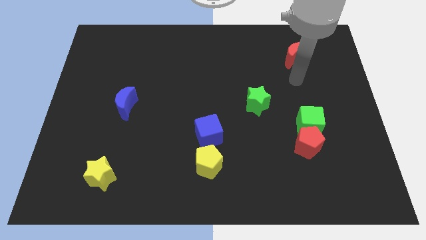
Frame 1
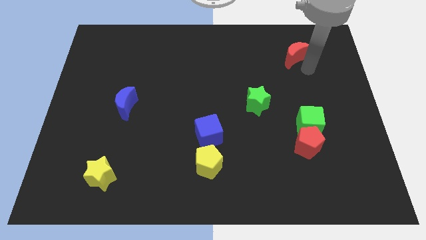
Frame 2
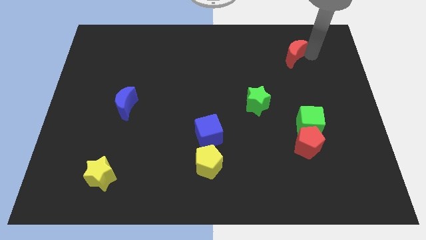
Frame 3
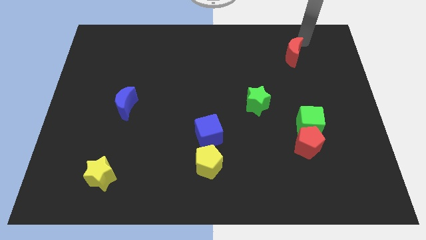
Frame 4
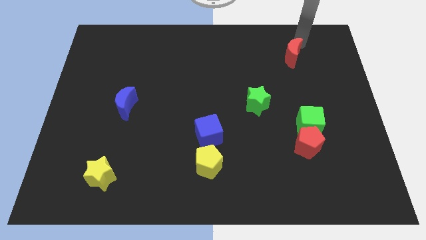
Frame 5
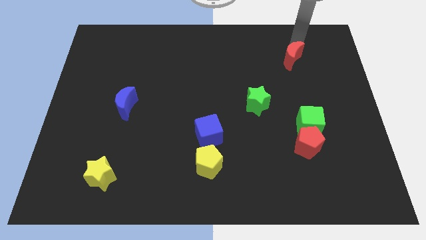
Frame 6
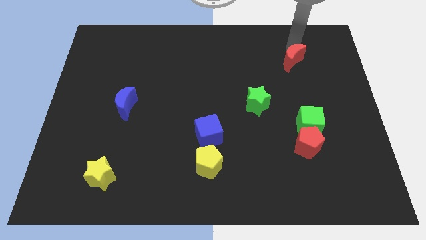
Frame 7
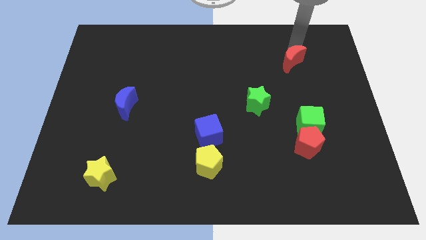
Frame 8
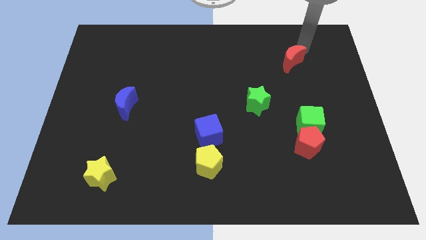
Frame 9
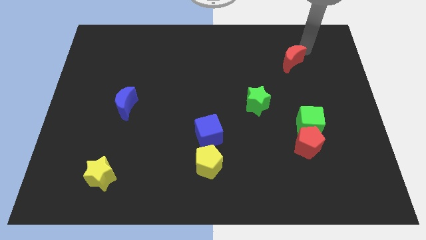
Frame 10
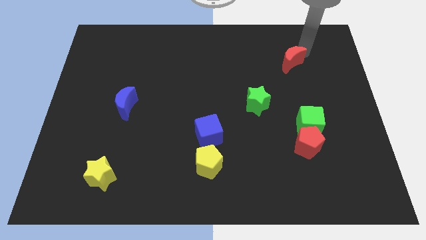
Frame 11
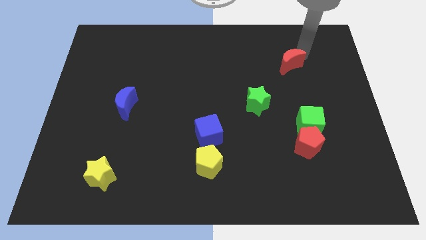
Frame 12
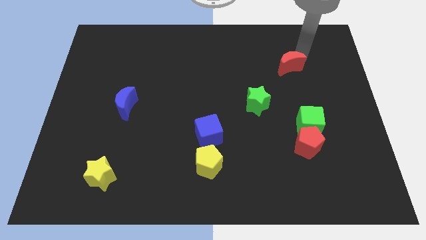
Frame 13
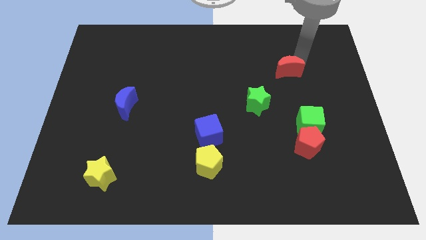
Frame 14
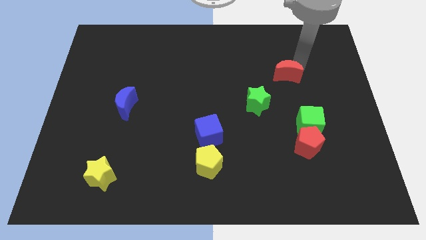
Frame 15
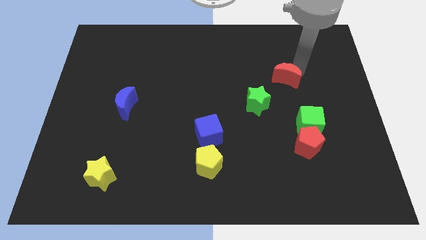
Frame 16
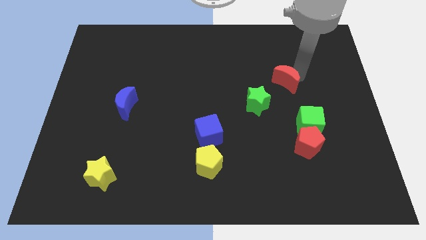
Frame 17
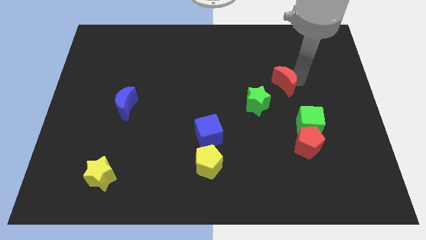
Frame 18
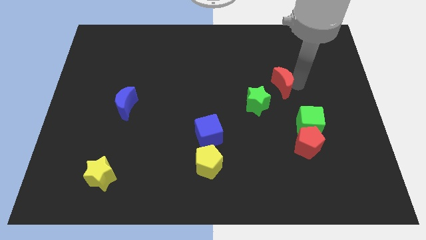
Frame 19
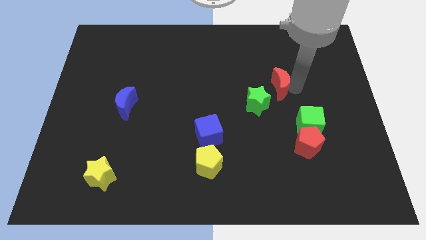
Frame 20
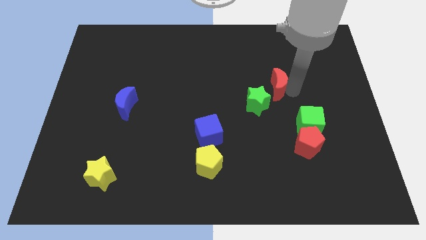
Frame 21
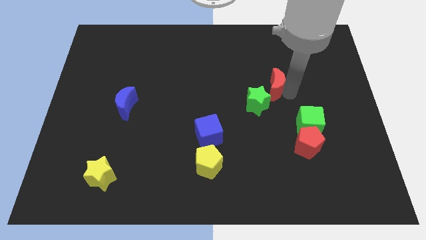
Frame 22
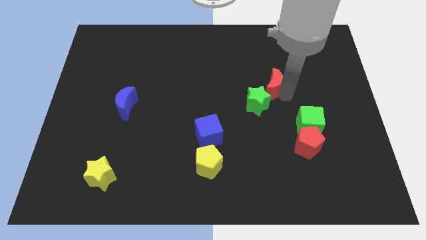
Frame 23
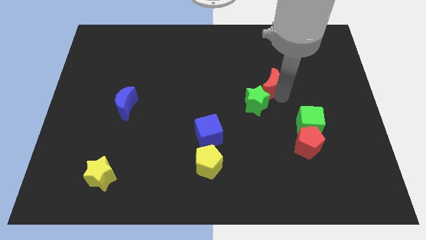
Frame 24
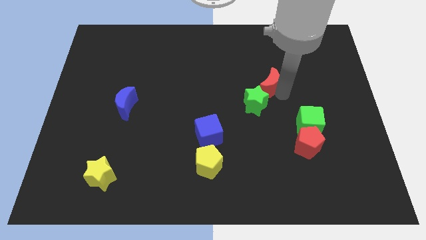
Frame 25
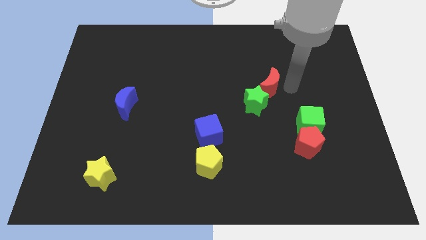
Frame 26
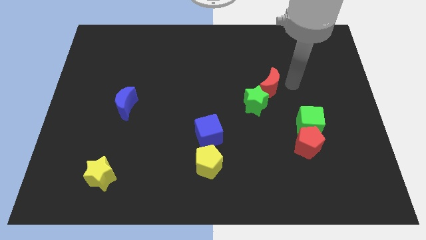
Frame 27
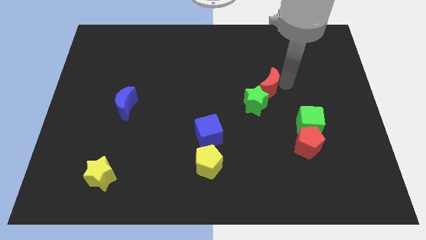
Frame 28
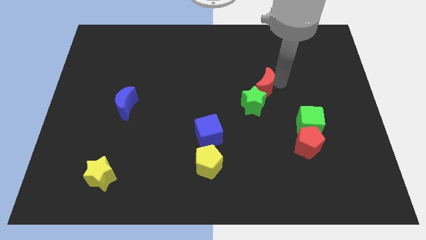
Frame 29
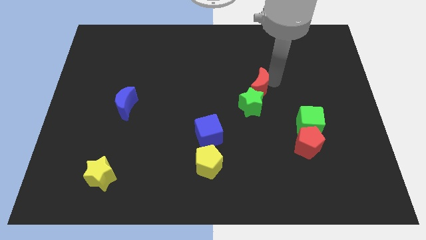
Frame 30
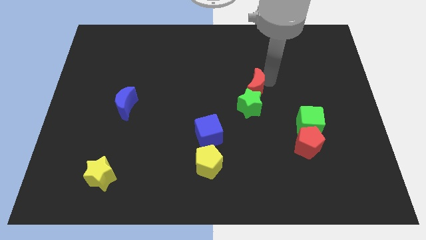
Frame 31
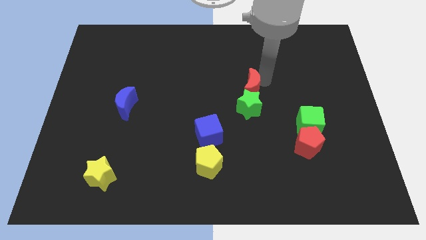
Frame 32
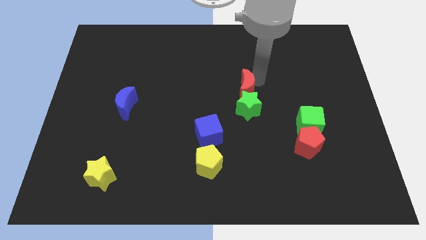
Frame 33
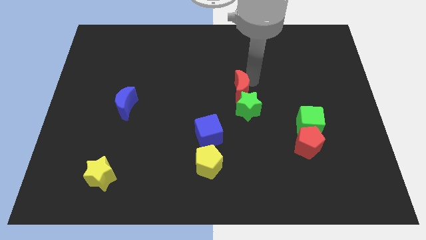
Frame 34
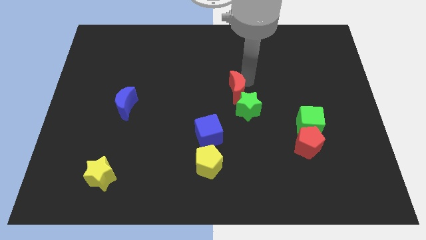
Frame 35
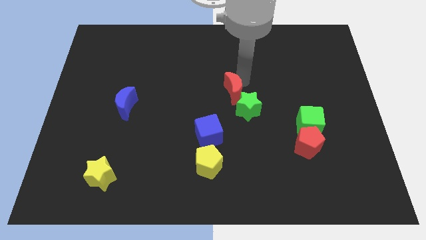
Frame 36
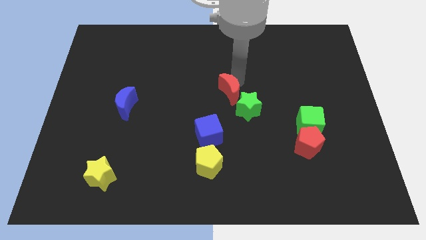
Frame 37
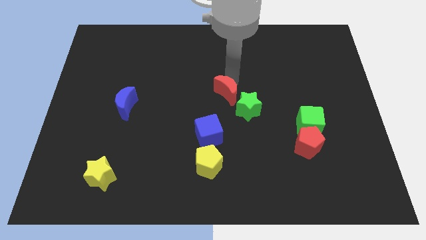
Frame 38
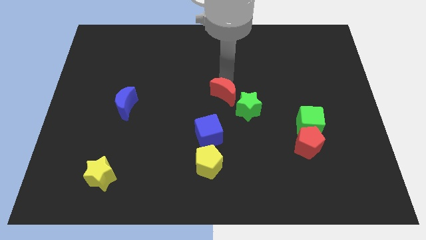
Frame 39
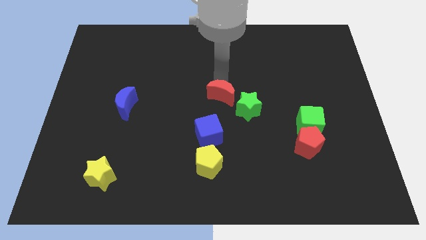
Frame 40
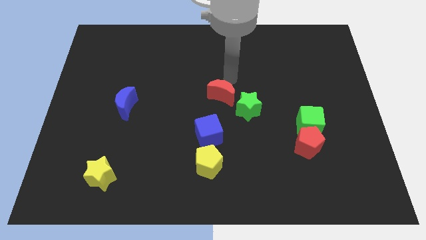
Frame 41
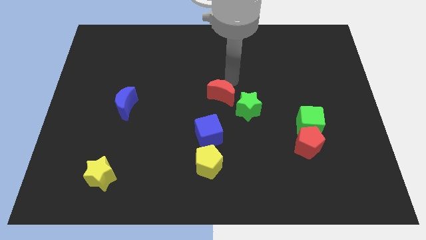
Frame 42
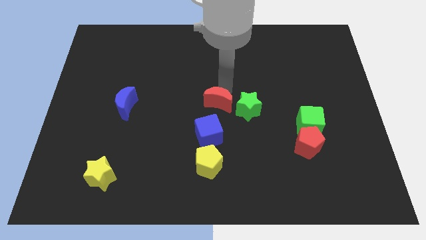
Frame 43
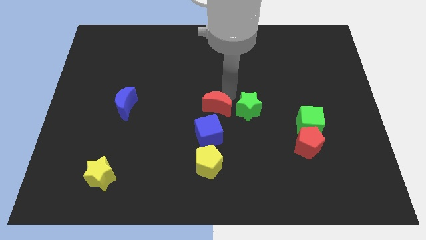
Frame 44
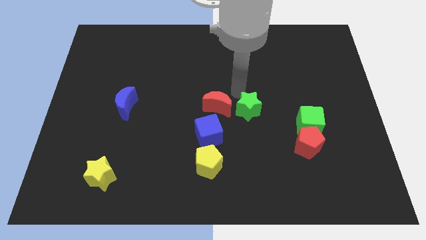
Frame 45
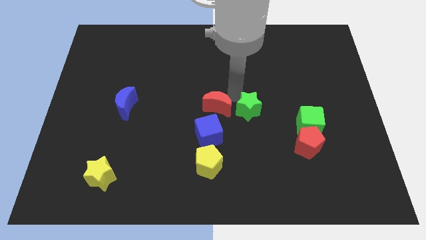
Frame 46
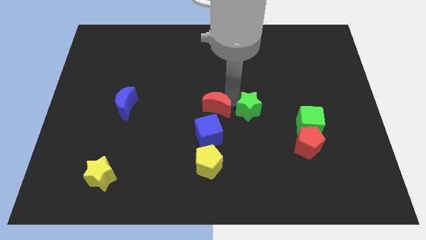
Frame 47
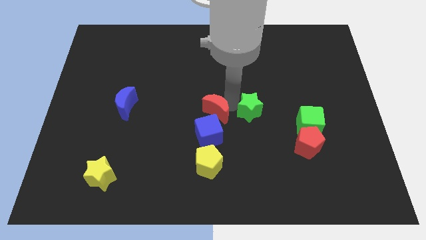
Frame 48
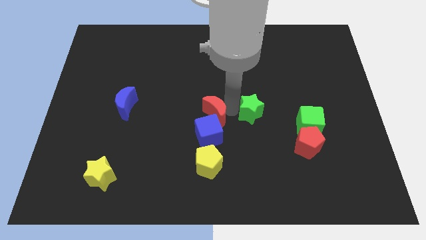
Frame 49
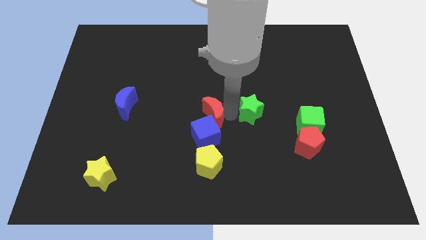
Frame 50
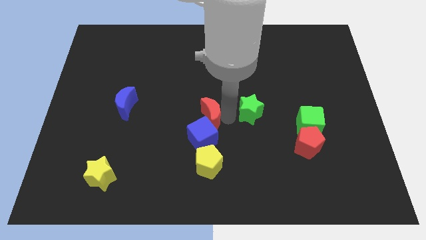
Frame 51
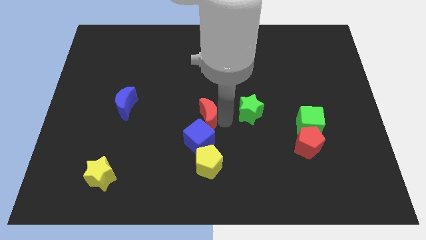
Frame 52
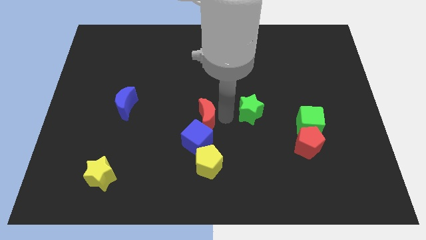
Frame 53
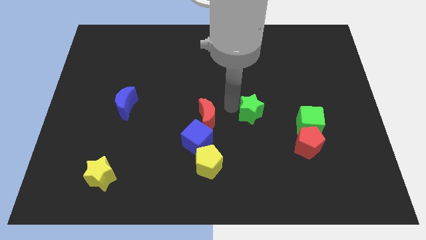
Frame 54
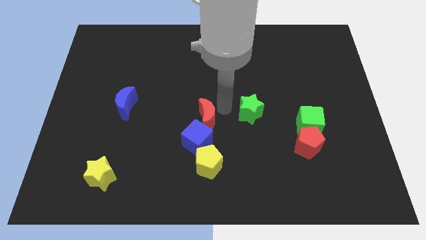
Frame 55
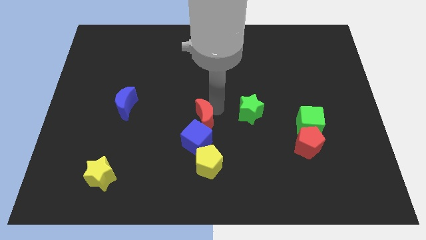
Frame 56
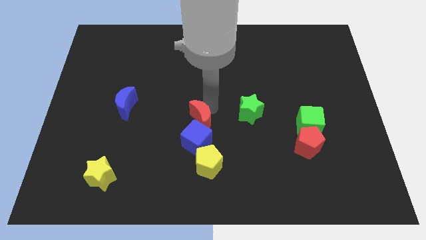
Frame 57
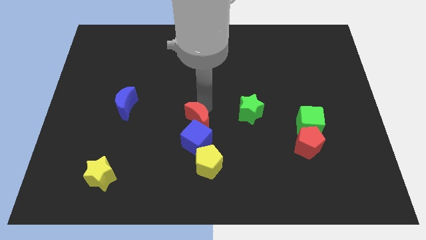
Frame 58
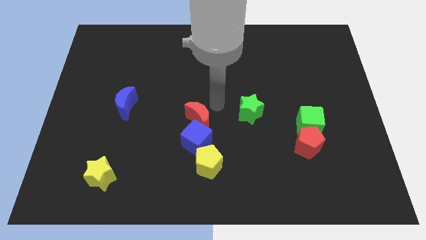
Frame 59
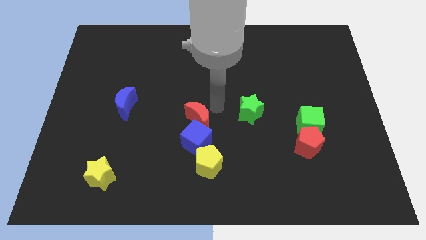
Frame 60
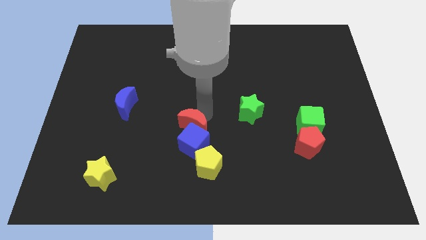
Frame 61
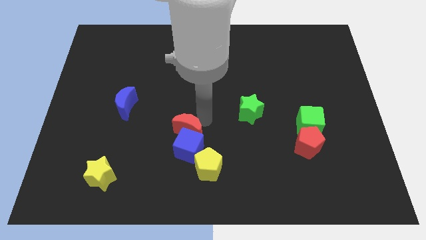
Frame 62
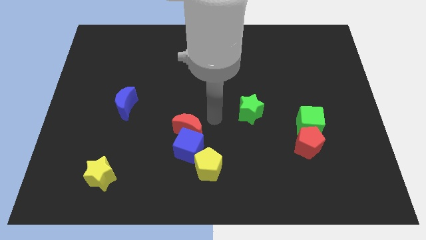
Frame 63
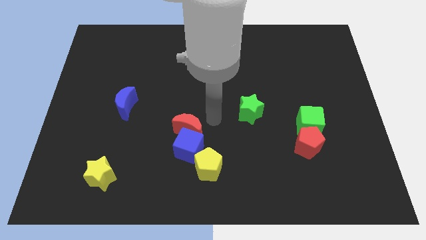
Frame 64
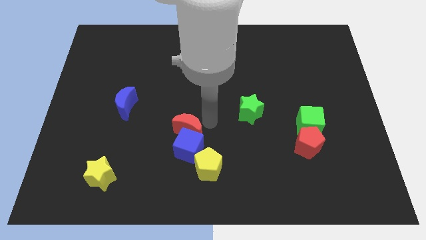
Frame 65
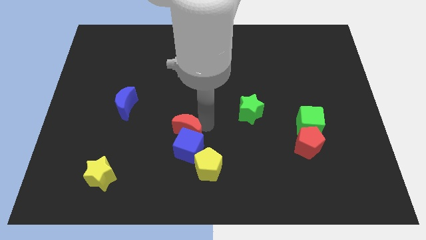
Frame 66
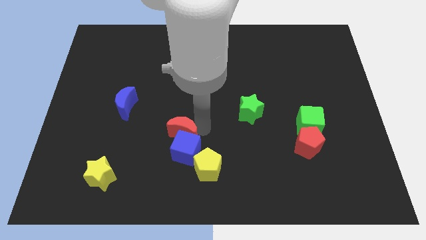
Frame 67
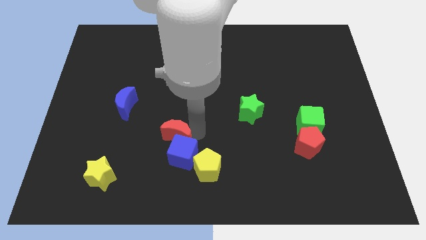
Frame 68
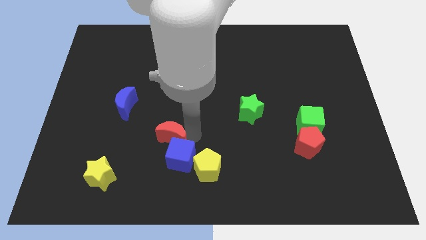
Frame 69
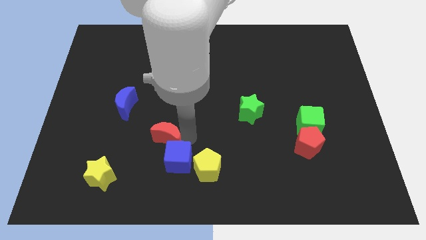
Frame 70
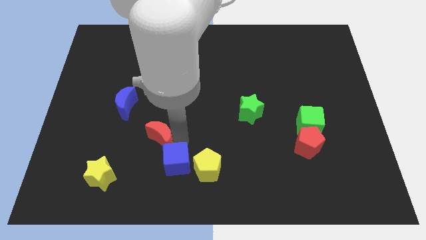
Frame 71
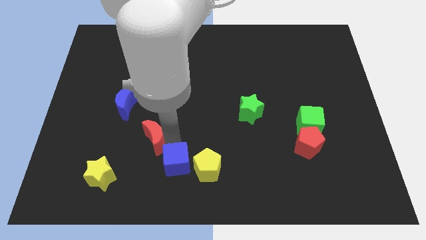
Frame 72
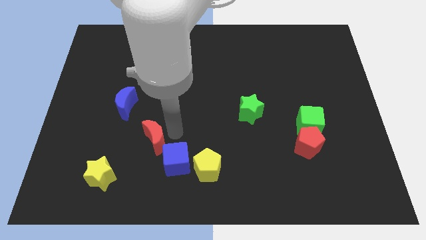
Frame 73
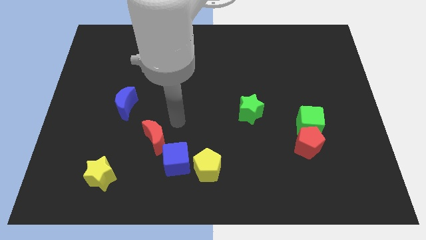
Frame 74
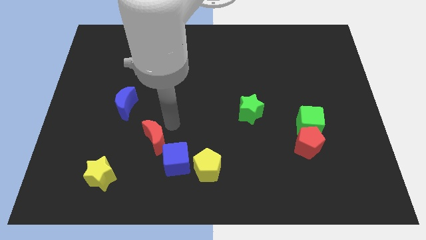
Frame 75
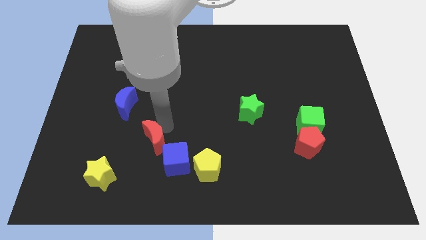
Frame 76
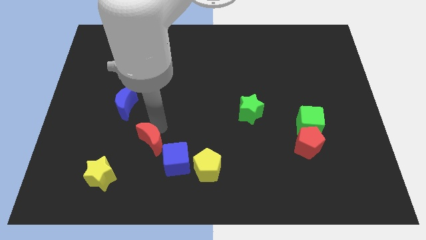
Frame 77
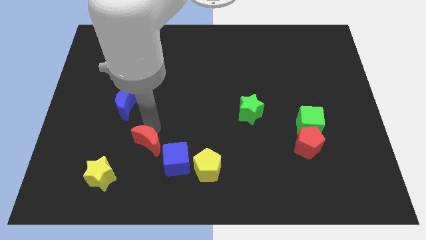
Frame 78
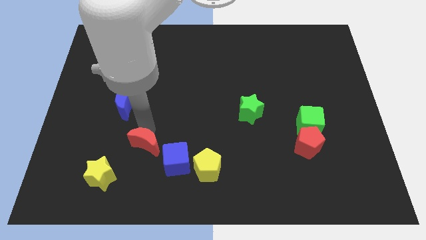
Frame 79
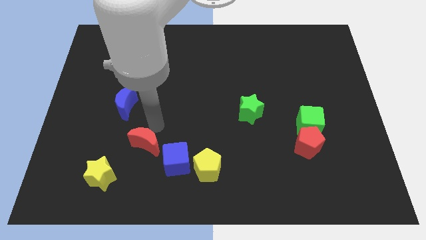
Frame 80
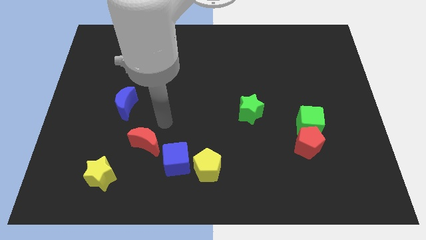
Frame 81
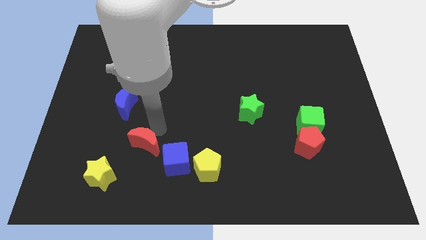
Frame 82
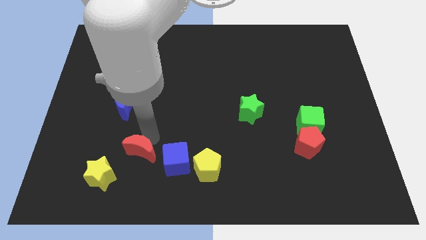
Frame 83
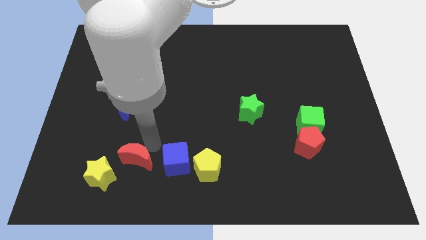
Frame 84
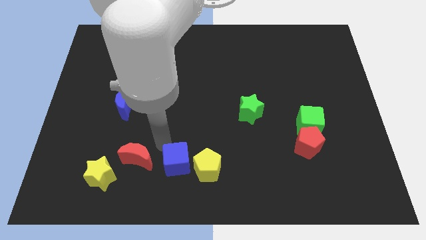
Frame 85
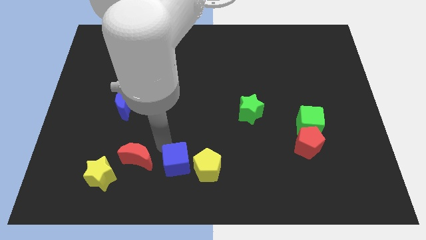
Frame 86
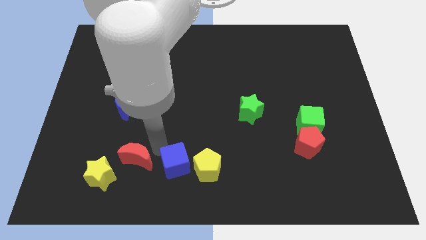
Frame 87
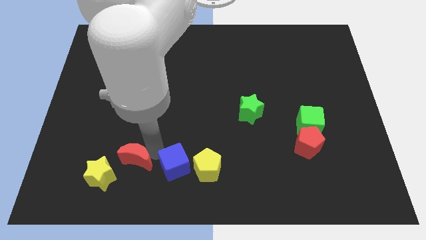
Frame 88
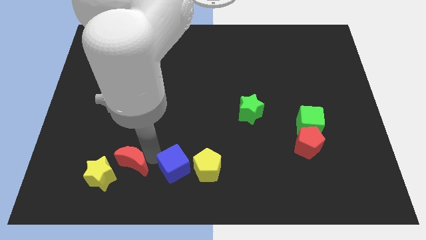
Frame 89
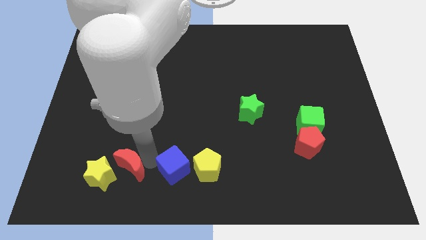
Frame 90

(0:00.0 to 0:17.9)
push the red moon close to the yellow star
